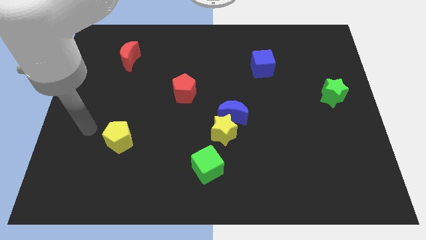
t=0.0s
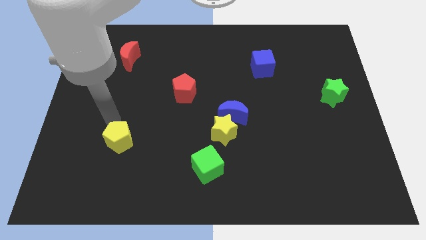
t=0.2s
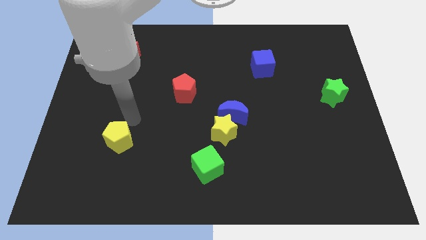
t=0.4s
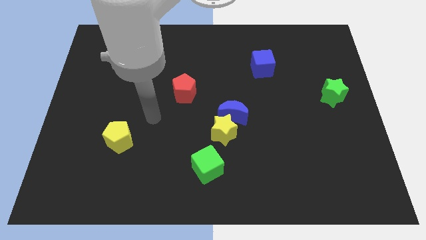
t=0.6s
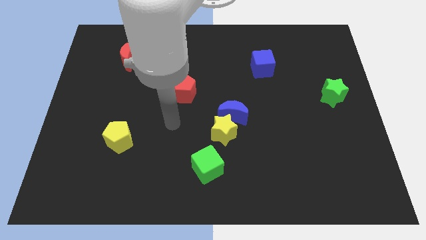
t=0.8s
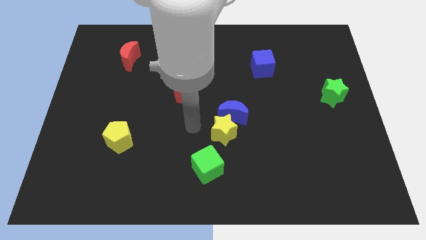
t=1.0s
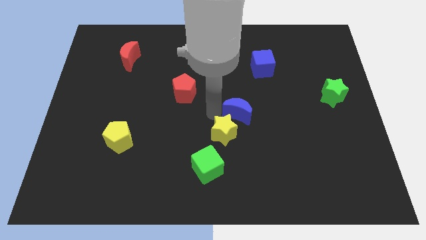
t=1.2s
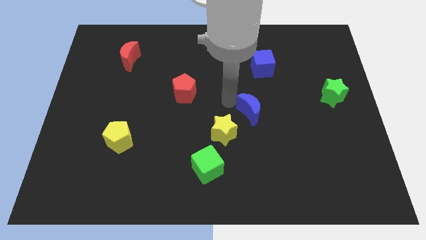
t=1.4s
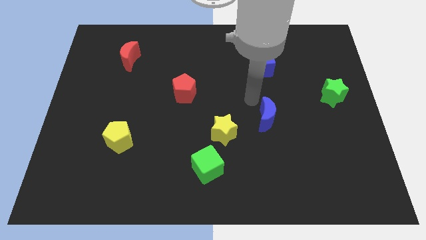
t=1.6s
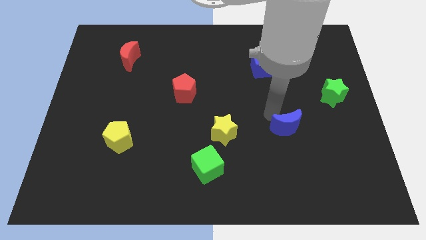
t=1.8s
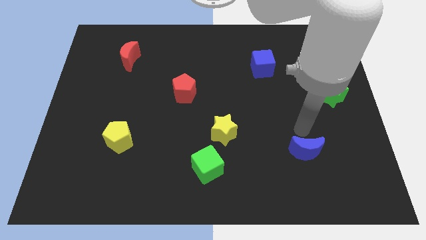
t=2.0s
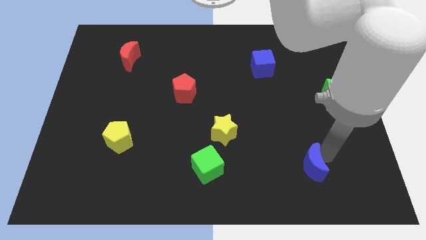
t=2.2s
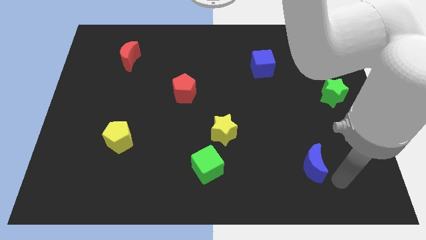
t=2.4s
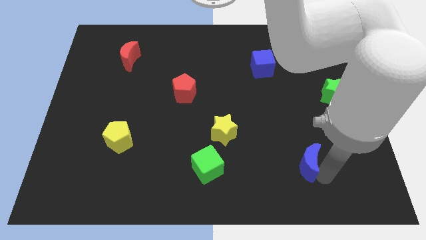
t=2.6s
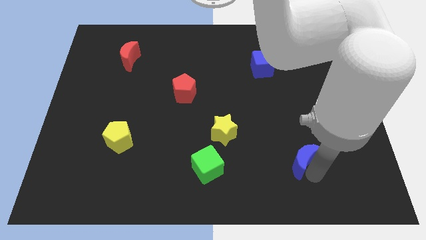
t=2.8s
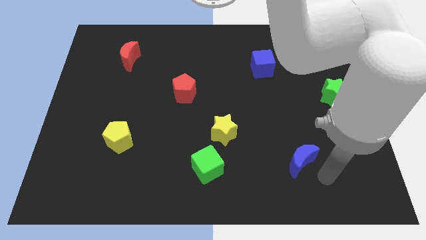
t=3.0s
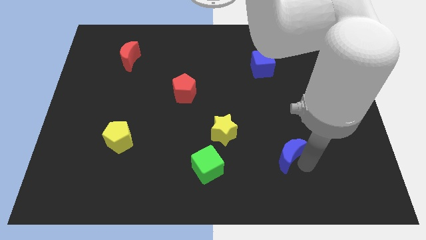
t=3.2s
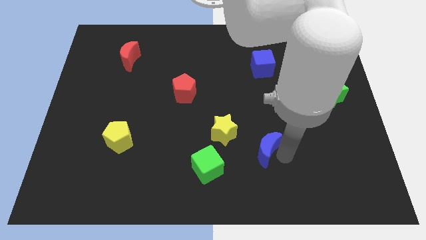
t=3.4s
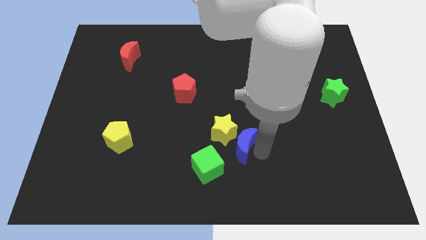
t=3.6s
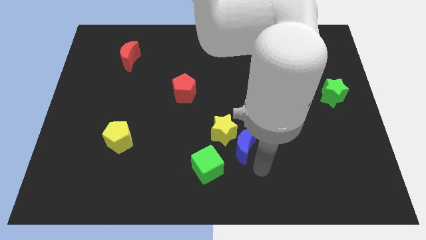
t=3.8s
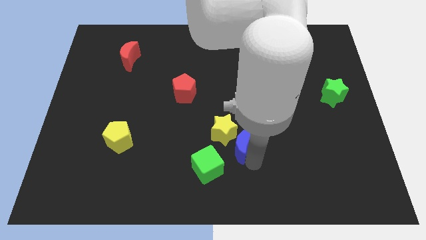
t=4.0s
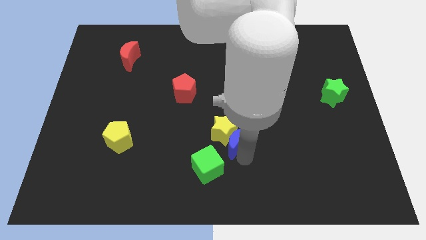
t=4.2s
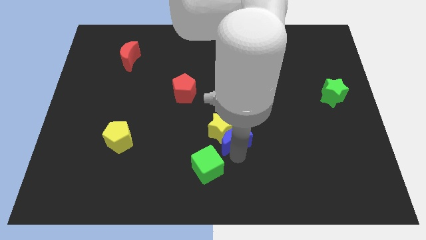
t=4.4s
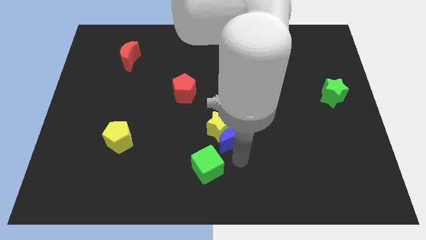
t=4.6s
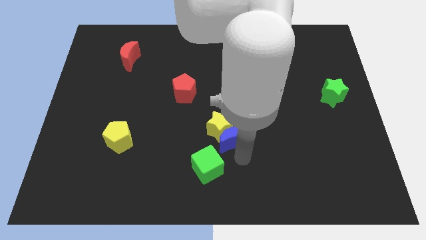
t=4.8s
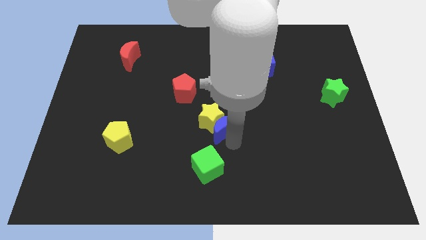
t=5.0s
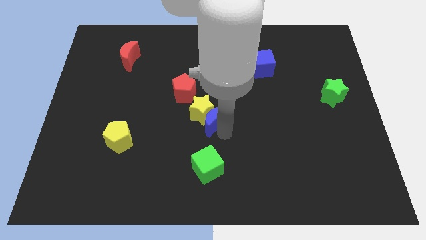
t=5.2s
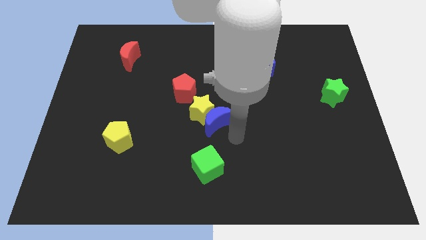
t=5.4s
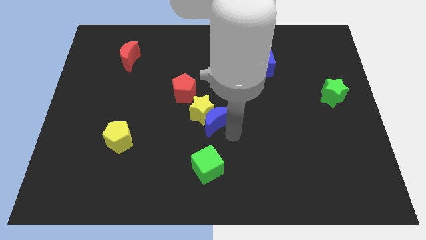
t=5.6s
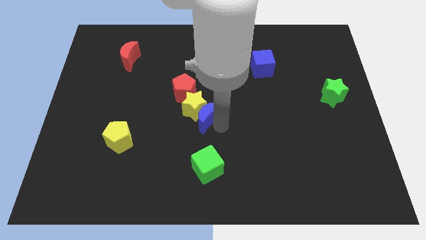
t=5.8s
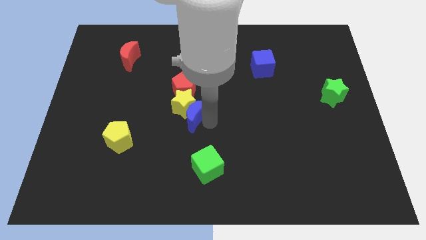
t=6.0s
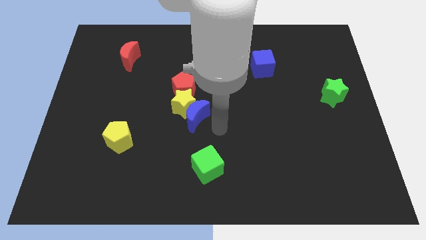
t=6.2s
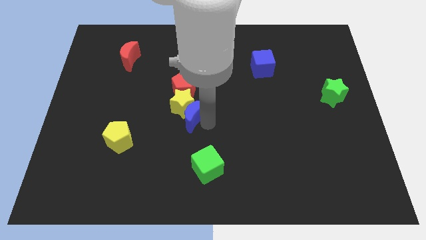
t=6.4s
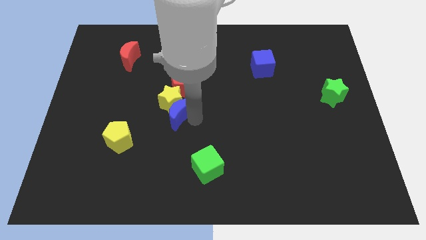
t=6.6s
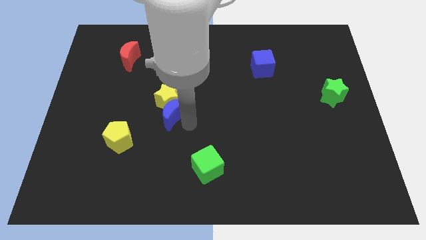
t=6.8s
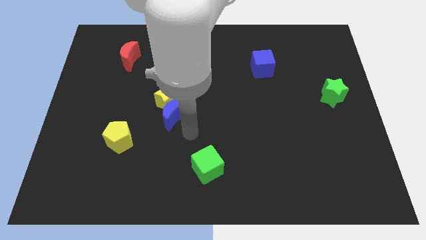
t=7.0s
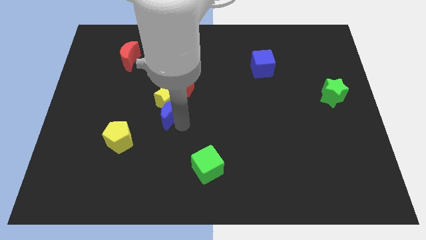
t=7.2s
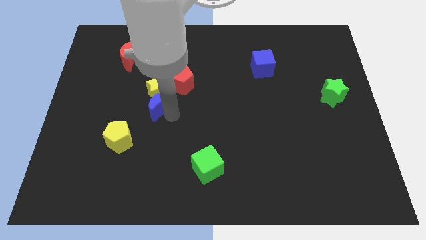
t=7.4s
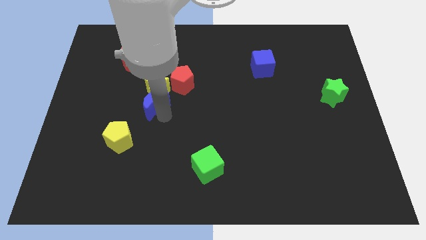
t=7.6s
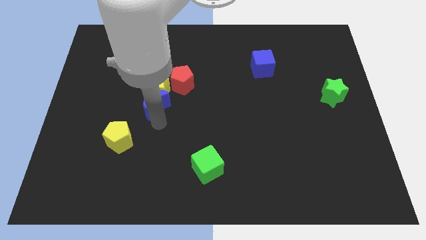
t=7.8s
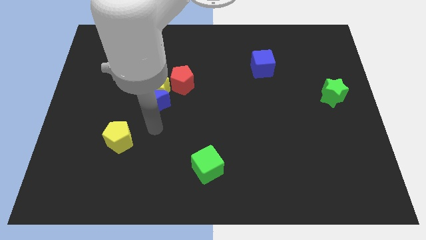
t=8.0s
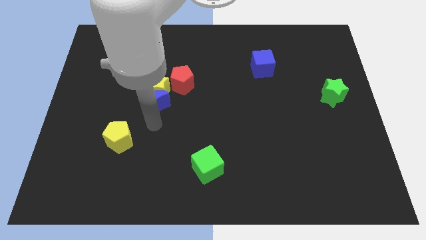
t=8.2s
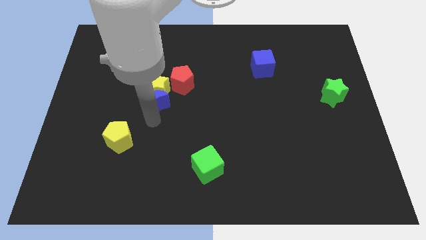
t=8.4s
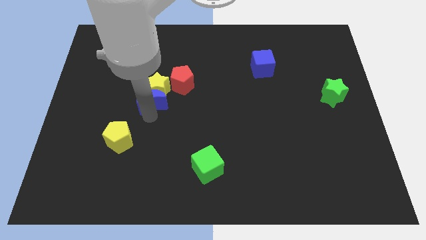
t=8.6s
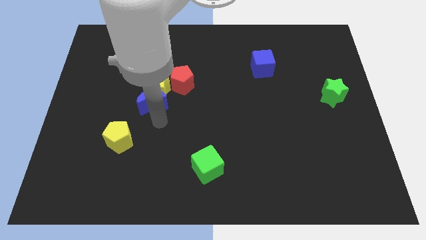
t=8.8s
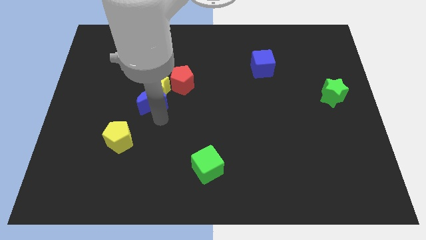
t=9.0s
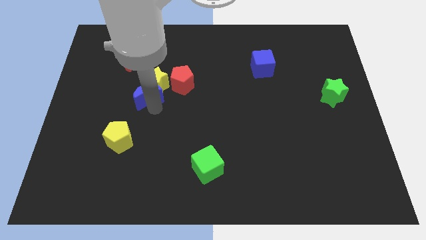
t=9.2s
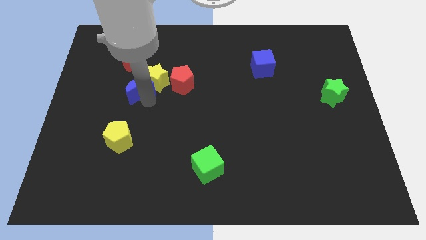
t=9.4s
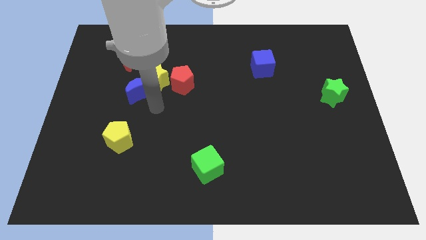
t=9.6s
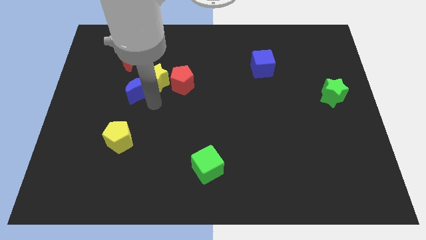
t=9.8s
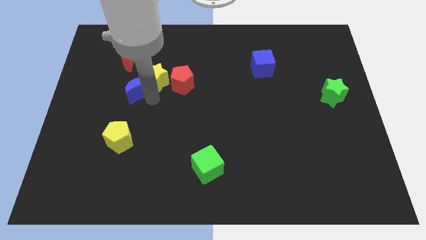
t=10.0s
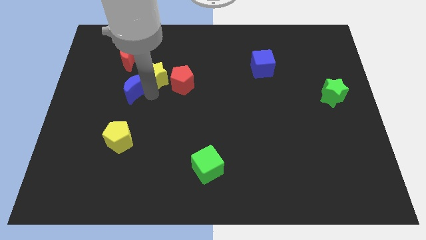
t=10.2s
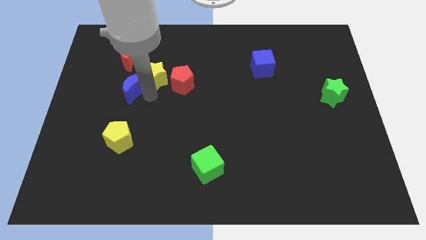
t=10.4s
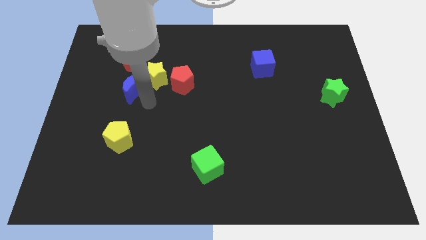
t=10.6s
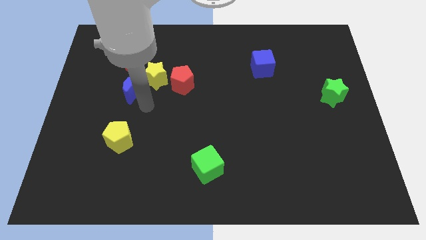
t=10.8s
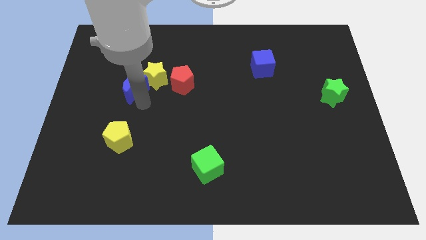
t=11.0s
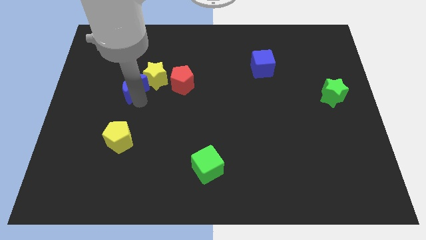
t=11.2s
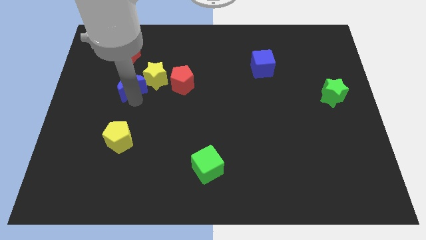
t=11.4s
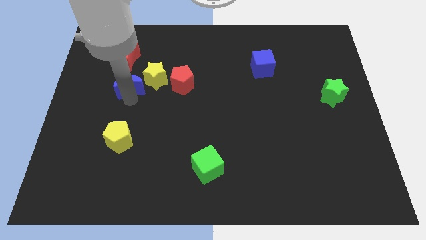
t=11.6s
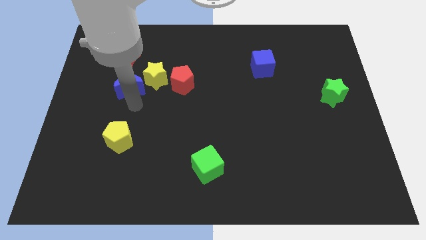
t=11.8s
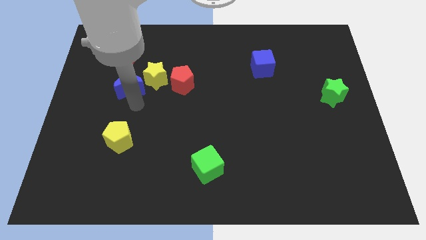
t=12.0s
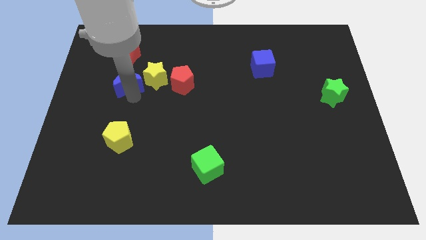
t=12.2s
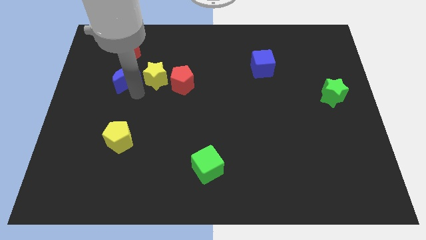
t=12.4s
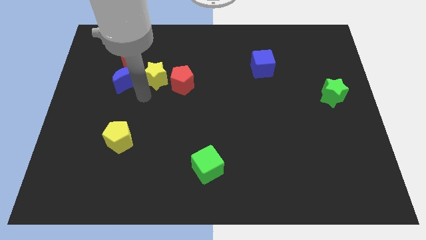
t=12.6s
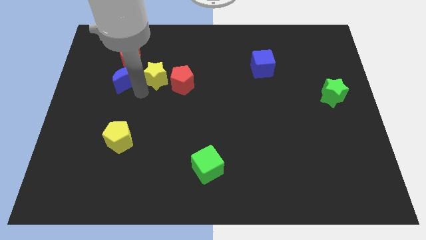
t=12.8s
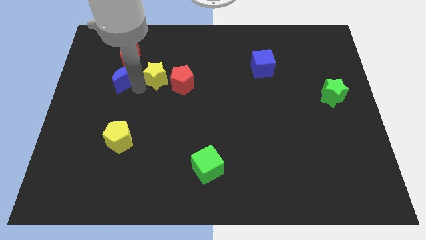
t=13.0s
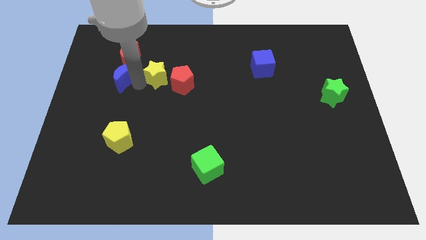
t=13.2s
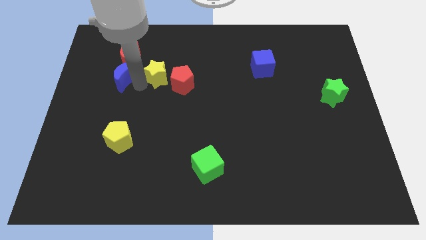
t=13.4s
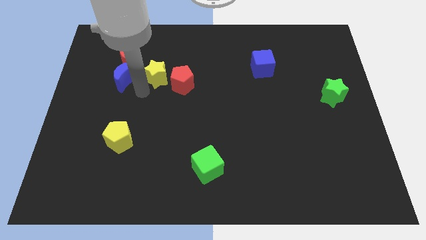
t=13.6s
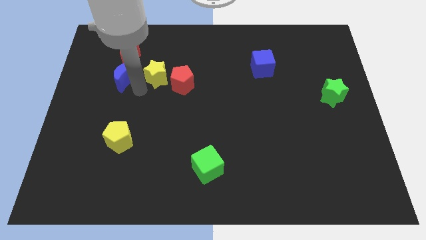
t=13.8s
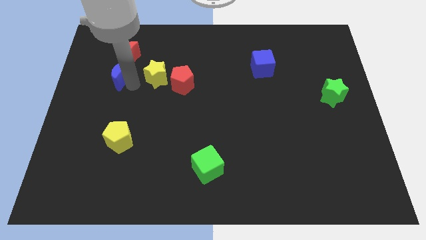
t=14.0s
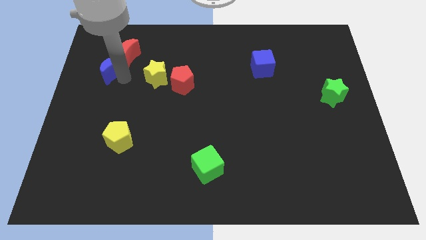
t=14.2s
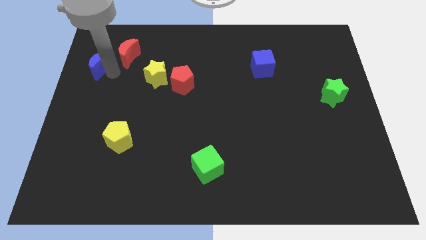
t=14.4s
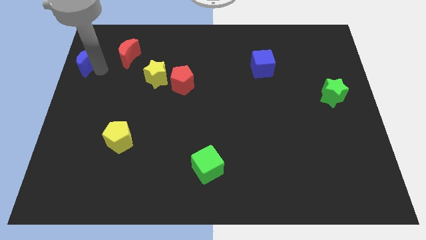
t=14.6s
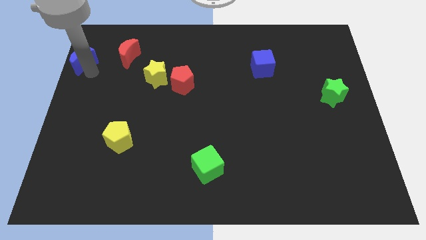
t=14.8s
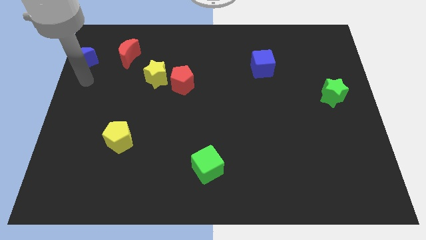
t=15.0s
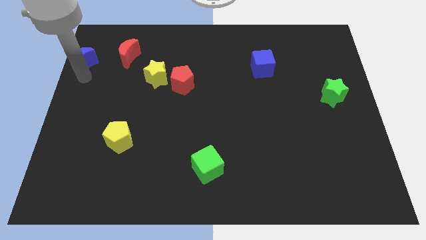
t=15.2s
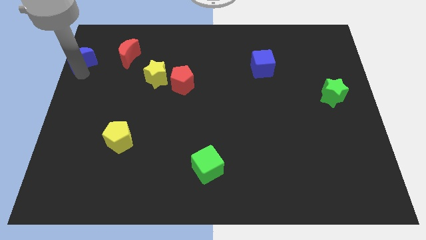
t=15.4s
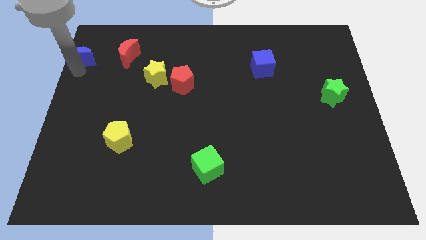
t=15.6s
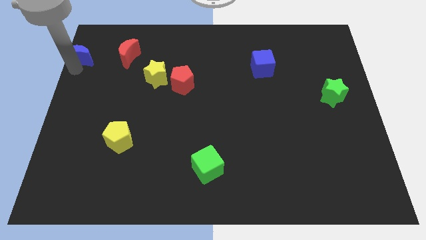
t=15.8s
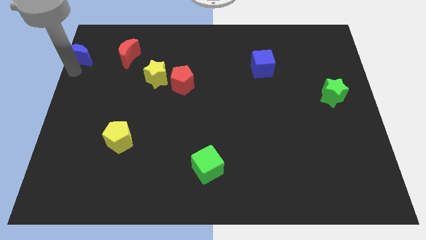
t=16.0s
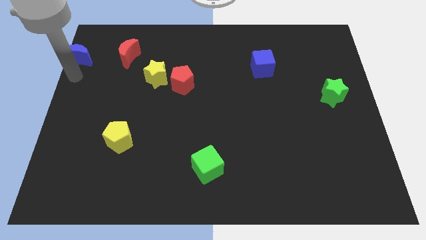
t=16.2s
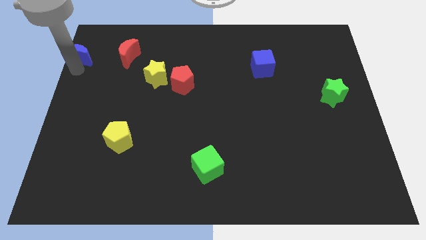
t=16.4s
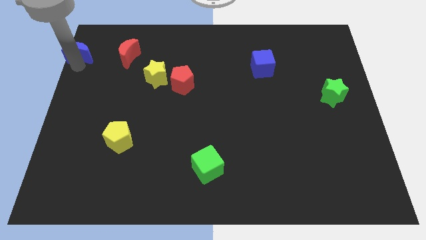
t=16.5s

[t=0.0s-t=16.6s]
slide the blue moon to the upper left corner
